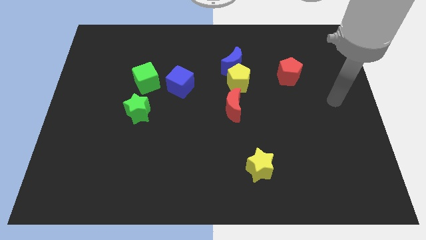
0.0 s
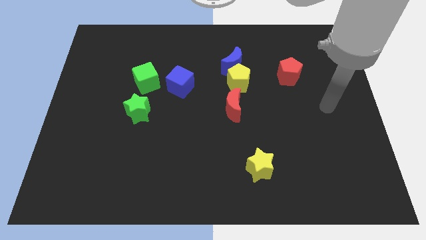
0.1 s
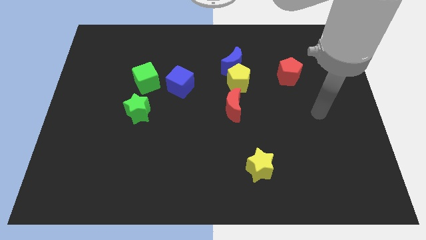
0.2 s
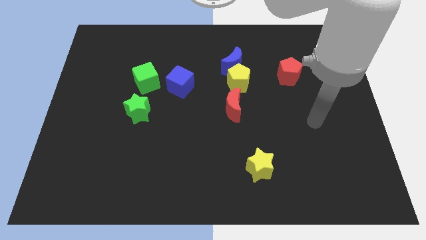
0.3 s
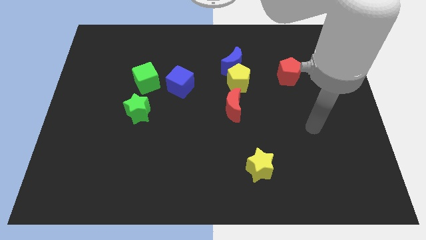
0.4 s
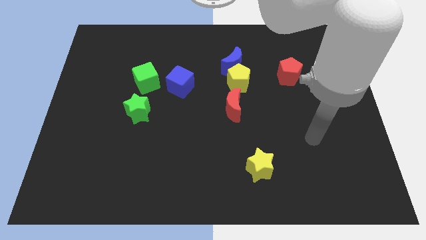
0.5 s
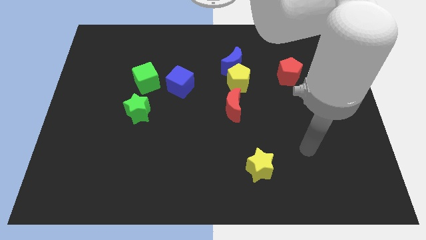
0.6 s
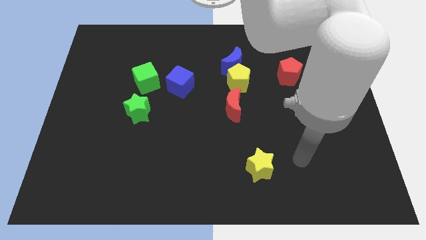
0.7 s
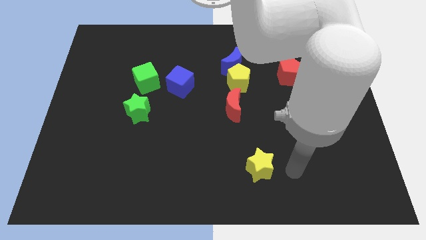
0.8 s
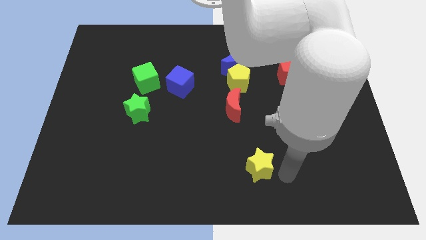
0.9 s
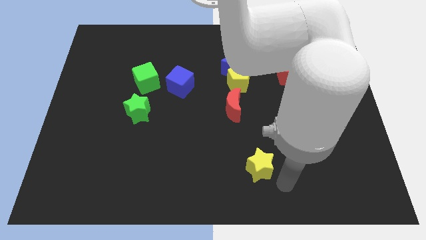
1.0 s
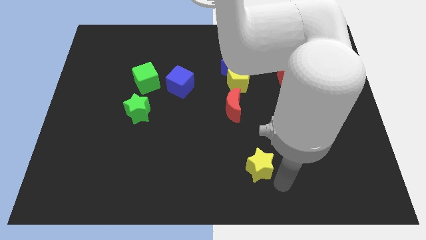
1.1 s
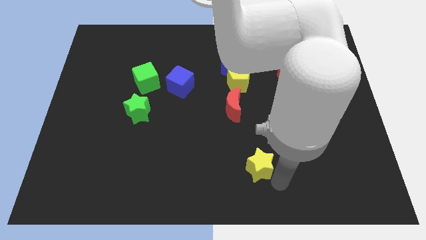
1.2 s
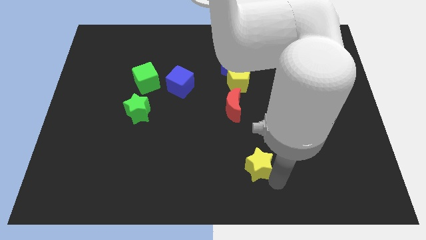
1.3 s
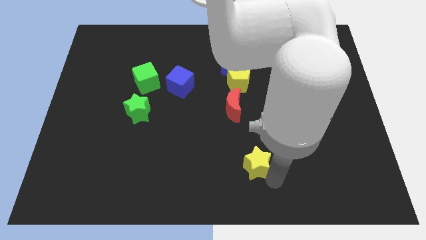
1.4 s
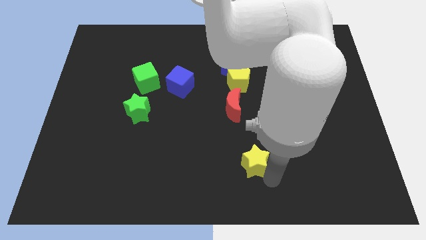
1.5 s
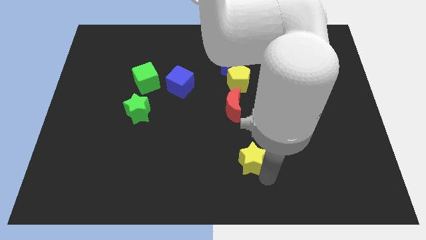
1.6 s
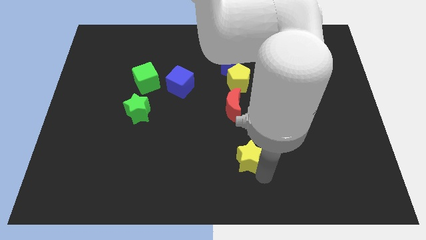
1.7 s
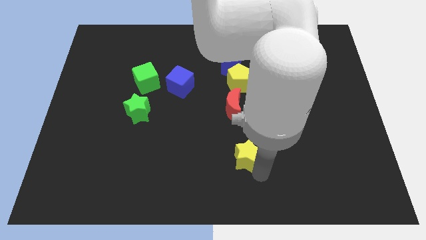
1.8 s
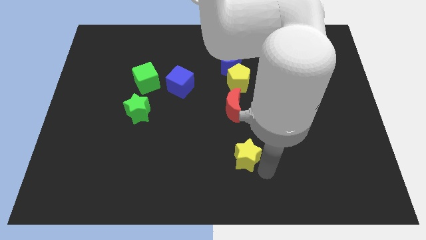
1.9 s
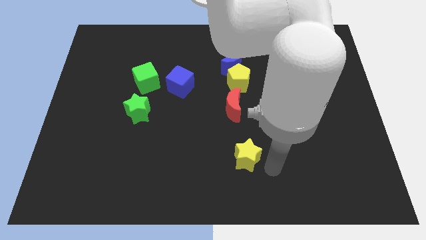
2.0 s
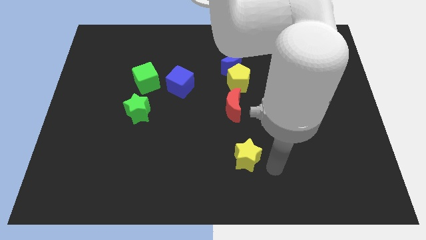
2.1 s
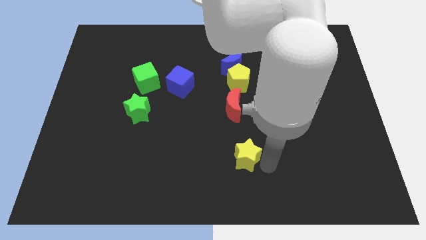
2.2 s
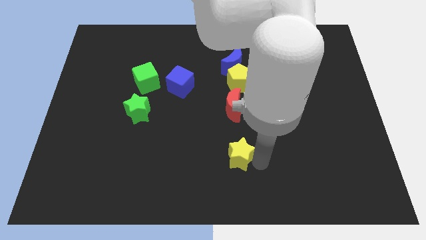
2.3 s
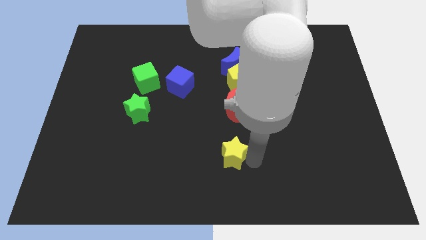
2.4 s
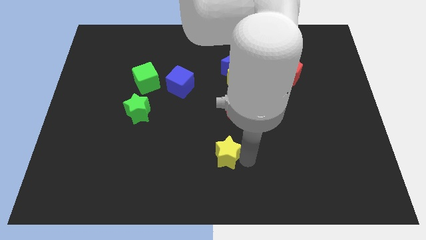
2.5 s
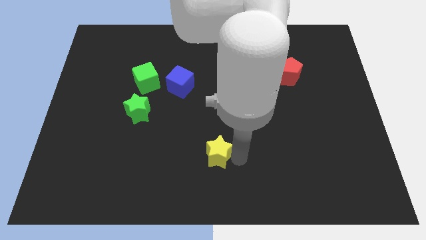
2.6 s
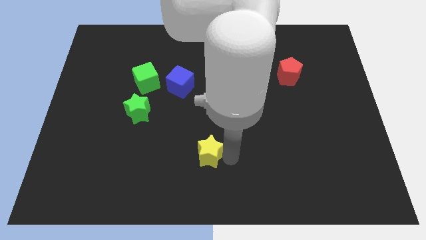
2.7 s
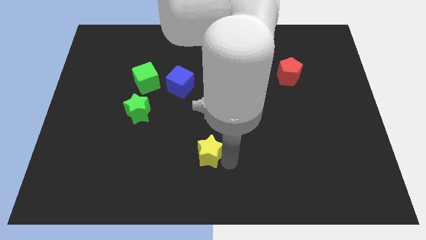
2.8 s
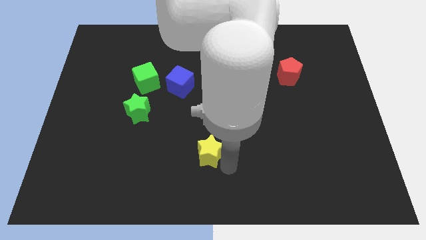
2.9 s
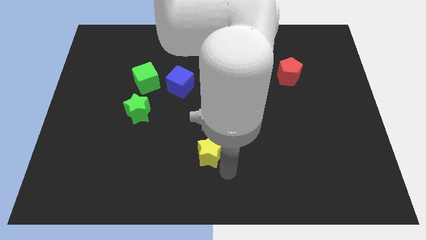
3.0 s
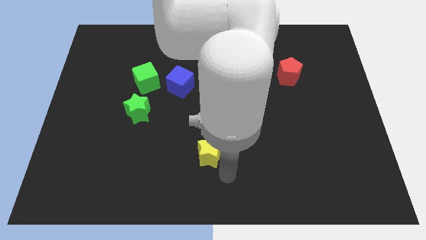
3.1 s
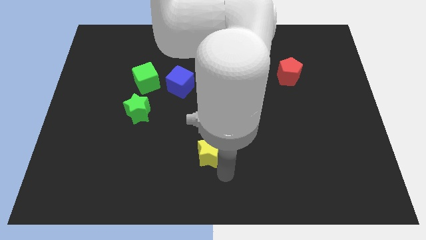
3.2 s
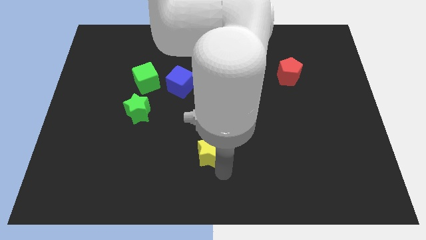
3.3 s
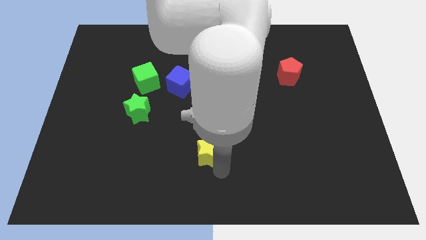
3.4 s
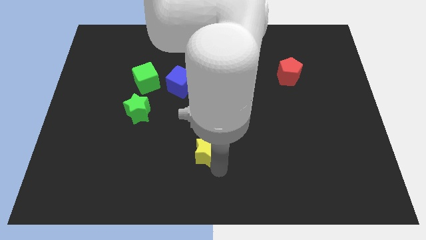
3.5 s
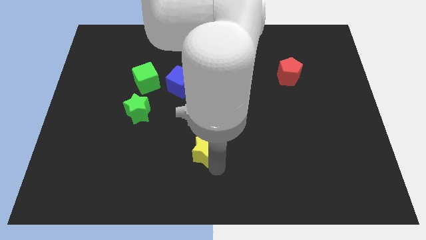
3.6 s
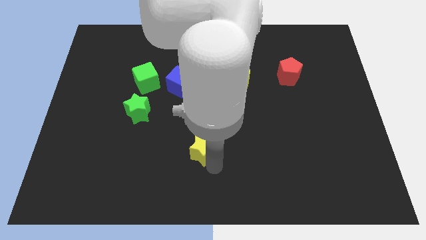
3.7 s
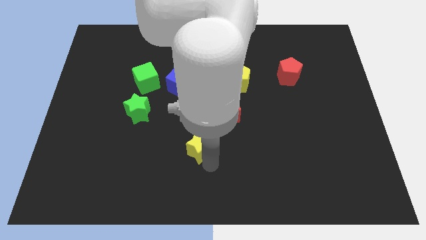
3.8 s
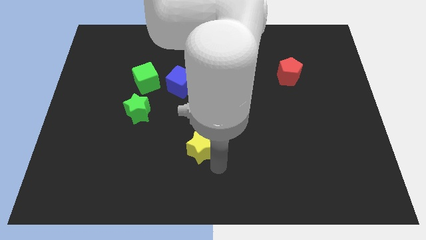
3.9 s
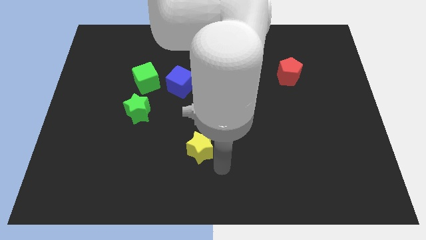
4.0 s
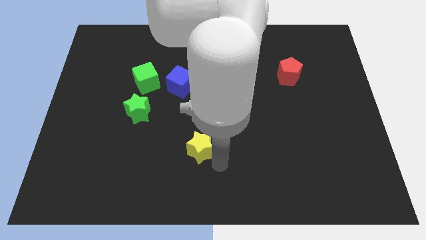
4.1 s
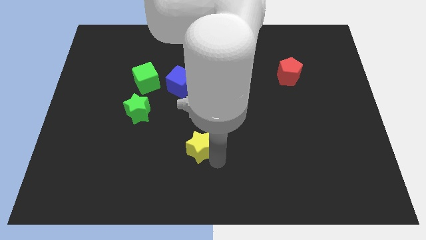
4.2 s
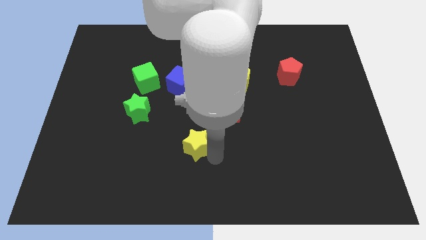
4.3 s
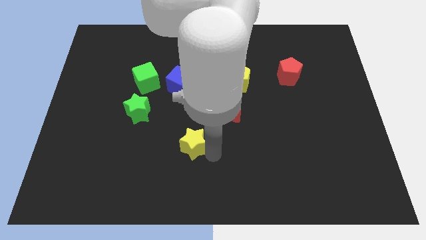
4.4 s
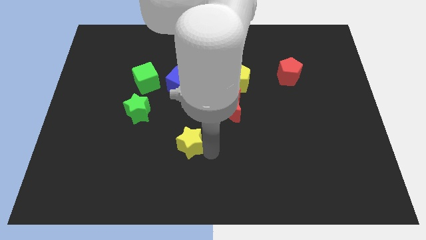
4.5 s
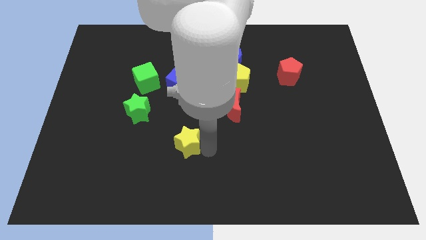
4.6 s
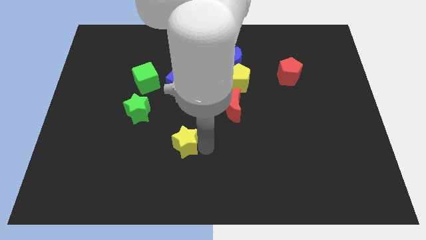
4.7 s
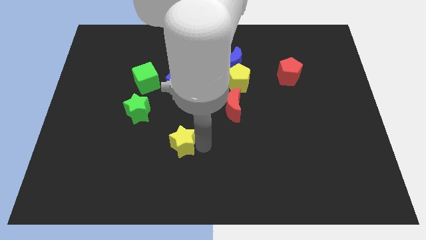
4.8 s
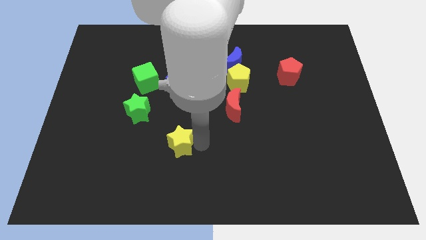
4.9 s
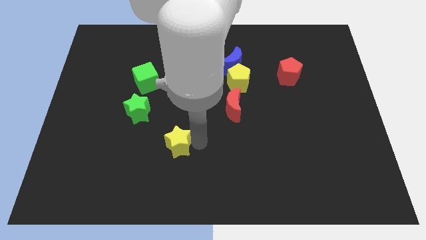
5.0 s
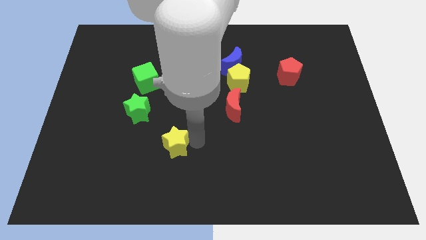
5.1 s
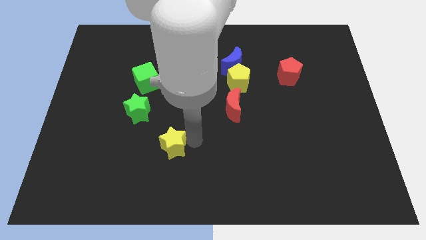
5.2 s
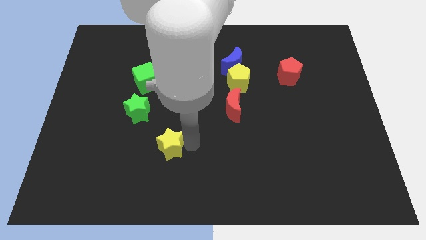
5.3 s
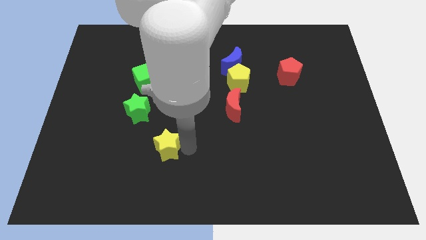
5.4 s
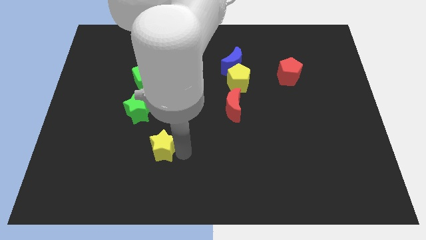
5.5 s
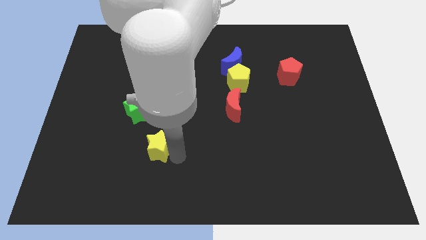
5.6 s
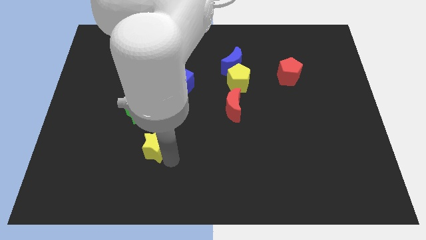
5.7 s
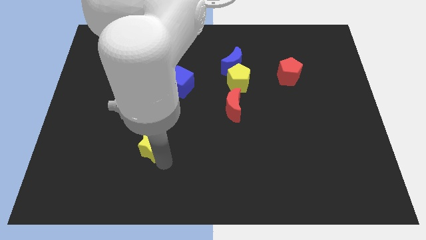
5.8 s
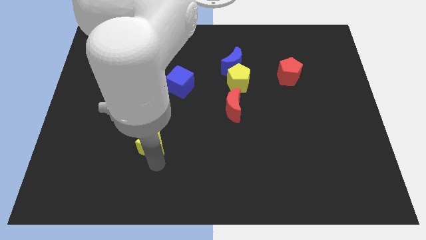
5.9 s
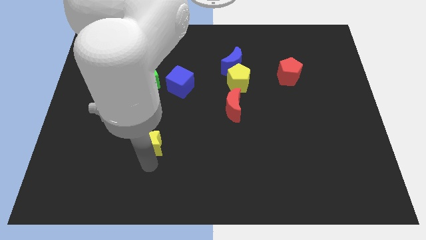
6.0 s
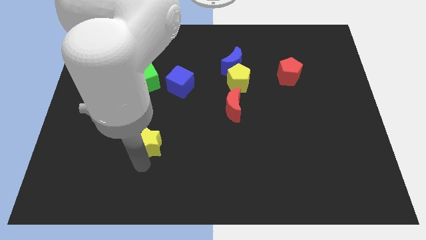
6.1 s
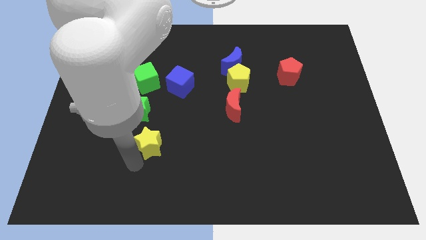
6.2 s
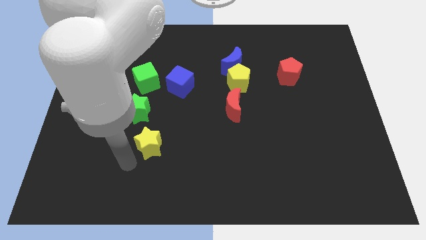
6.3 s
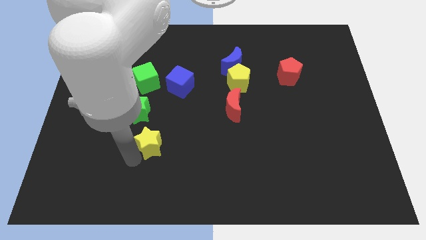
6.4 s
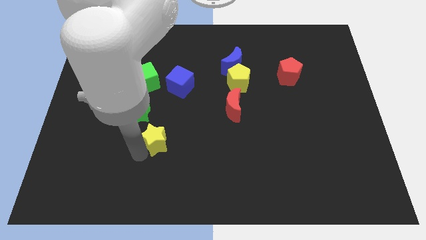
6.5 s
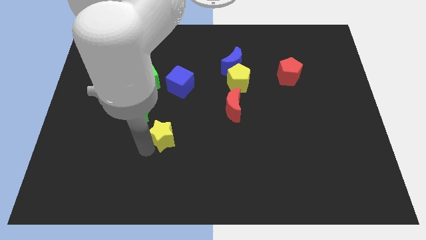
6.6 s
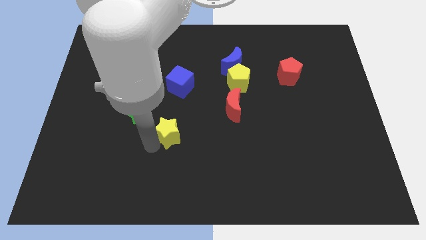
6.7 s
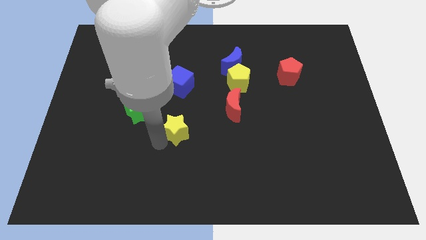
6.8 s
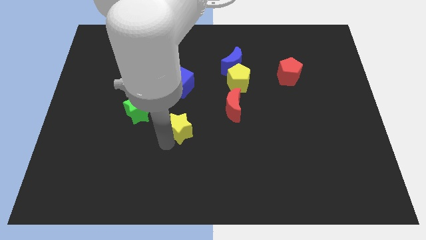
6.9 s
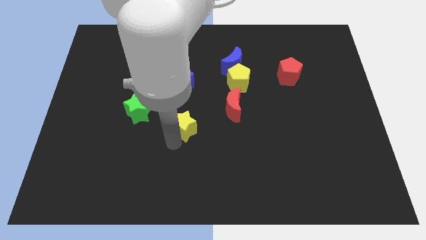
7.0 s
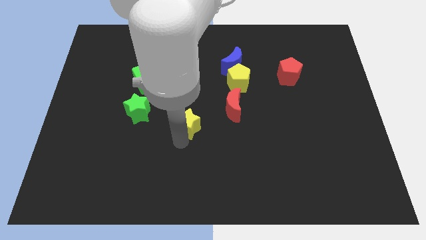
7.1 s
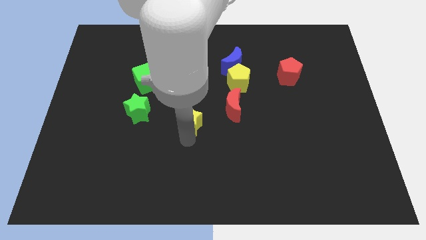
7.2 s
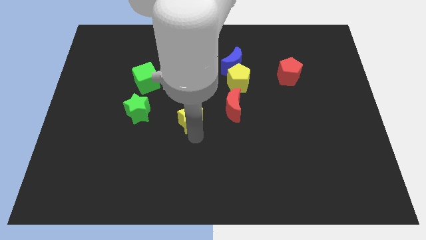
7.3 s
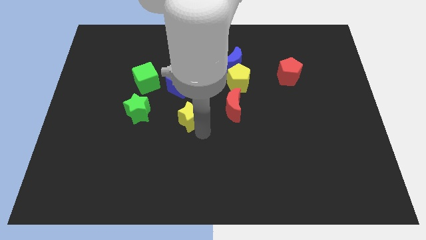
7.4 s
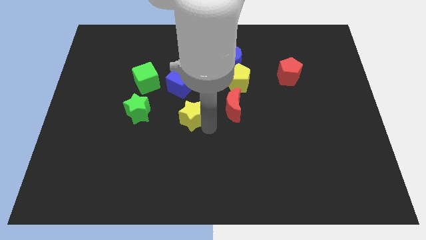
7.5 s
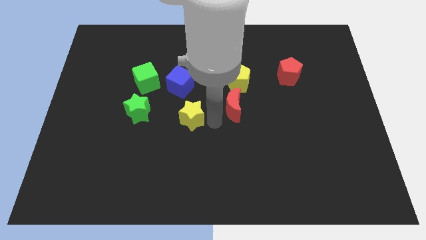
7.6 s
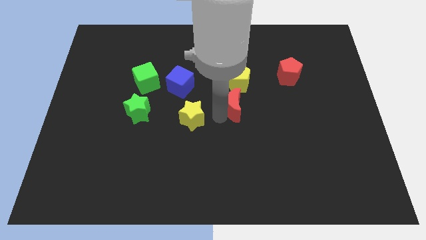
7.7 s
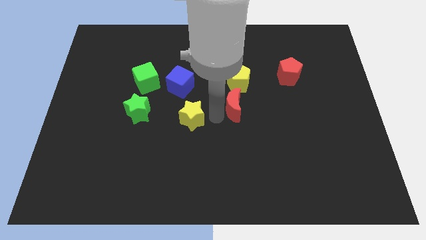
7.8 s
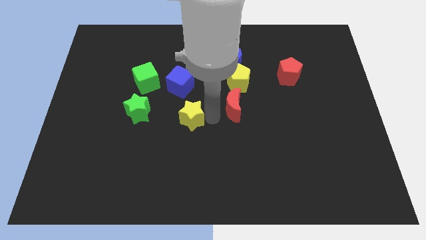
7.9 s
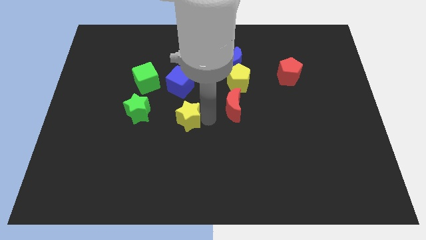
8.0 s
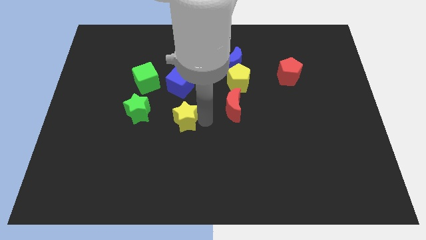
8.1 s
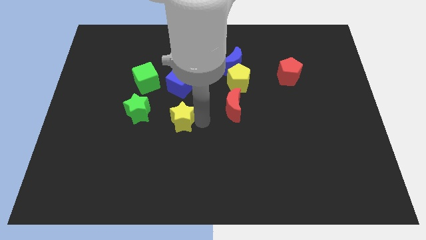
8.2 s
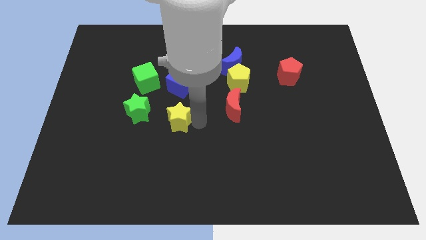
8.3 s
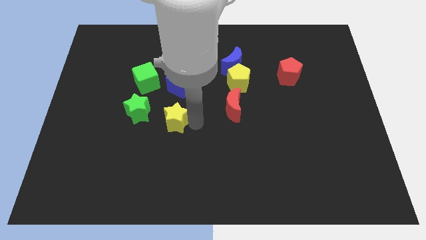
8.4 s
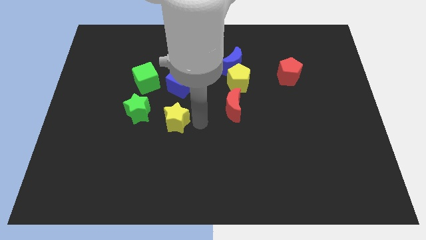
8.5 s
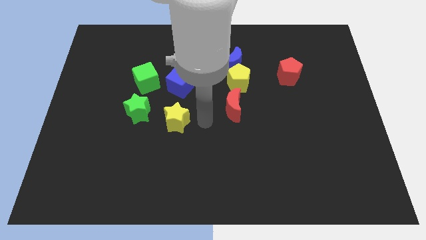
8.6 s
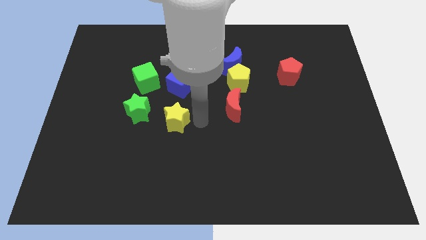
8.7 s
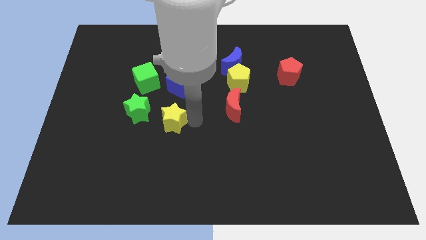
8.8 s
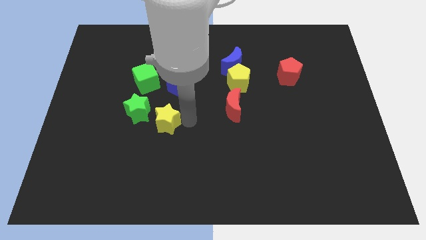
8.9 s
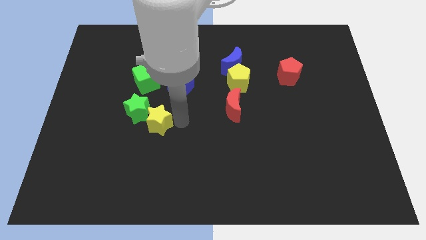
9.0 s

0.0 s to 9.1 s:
put the yellow star close to the green star
